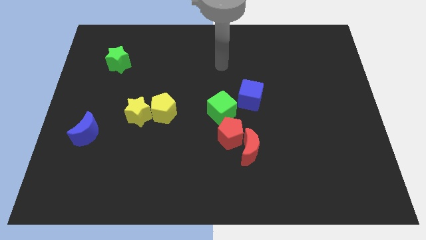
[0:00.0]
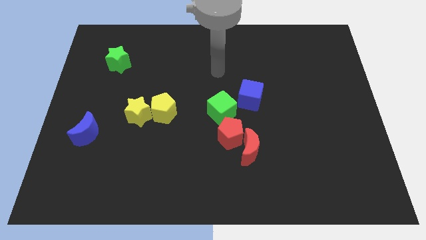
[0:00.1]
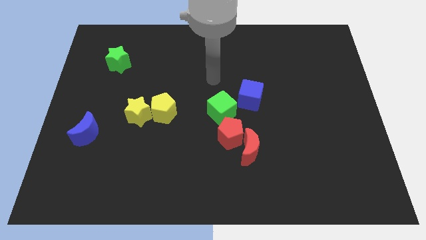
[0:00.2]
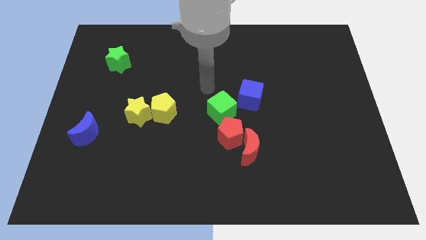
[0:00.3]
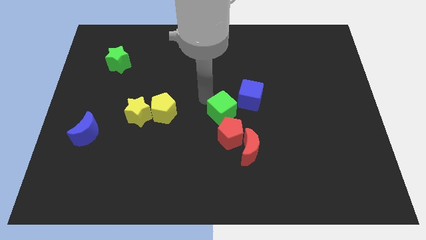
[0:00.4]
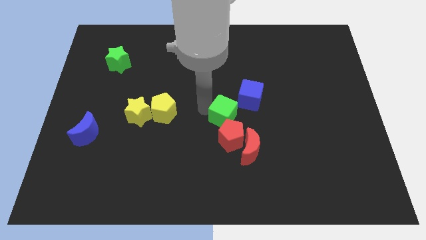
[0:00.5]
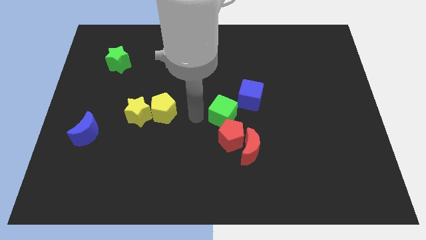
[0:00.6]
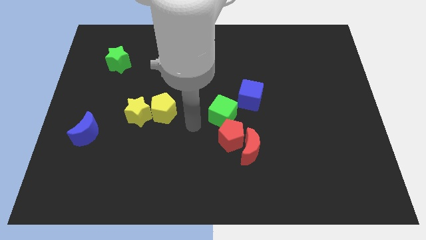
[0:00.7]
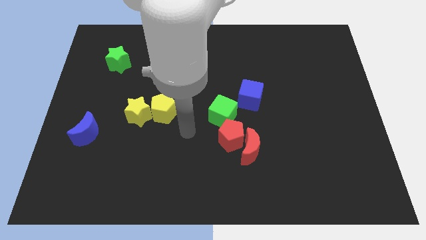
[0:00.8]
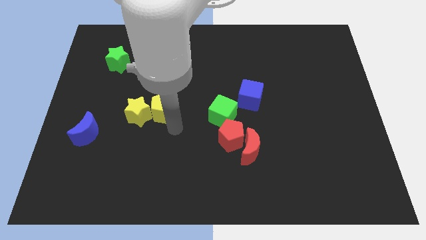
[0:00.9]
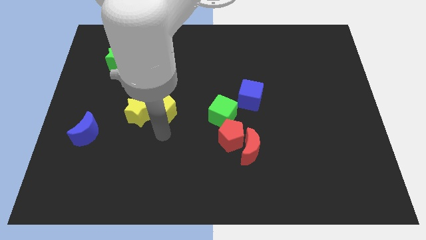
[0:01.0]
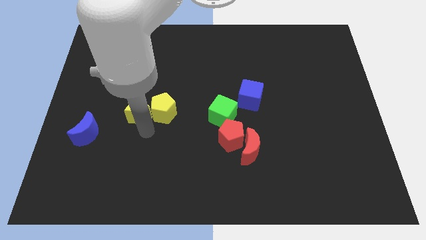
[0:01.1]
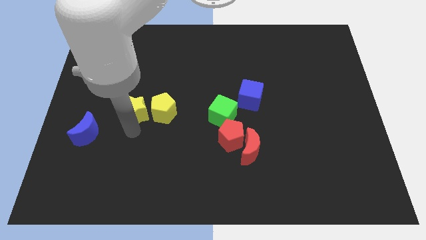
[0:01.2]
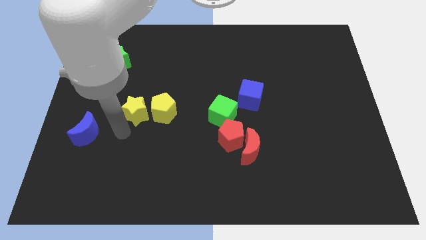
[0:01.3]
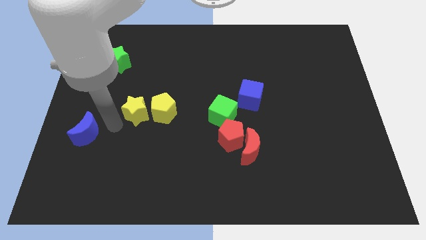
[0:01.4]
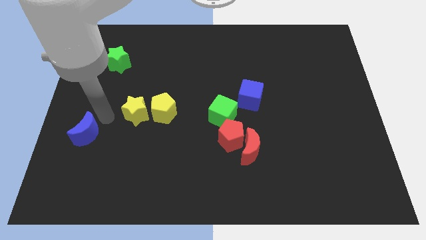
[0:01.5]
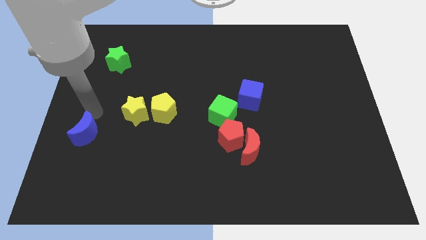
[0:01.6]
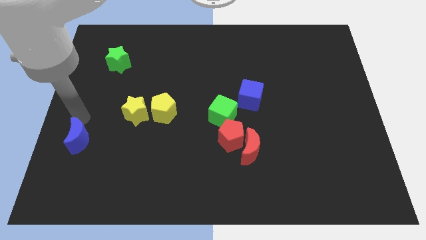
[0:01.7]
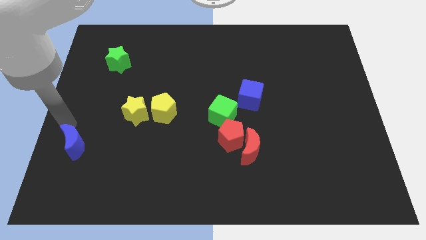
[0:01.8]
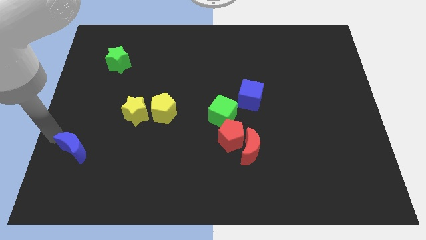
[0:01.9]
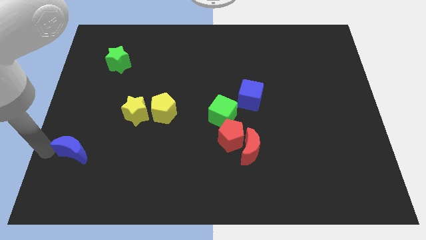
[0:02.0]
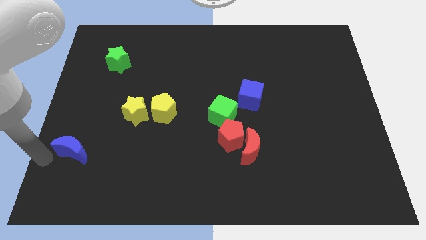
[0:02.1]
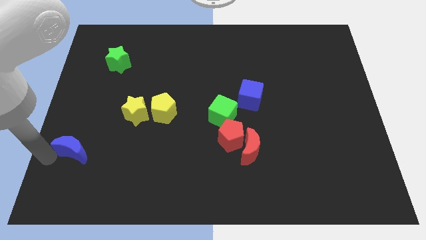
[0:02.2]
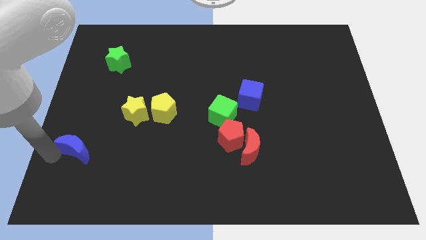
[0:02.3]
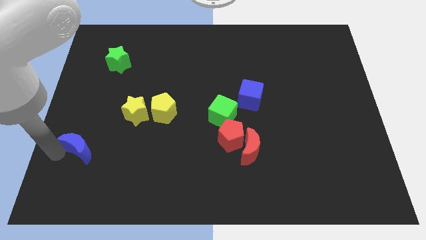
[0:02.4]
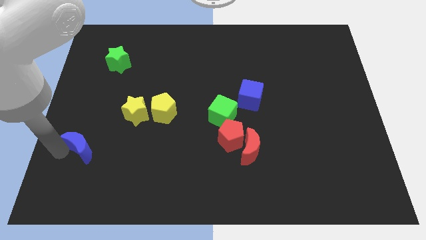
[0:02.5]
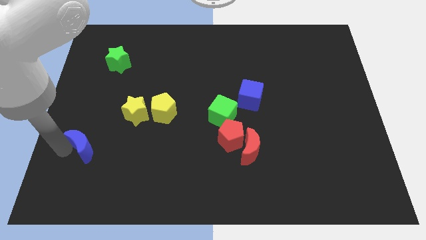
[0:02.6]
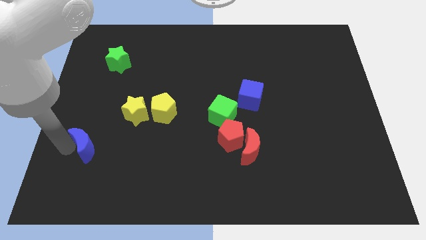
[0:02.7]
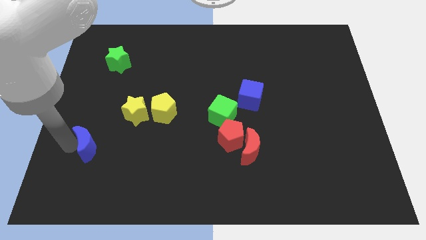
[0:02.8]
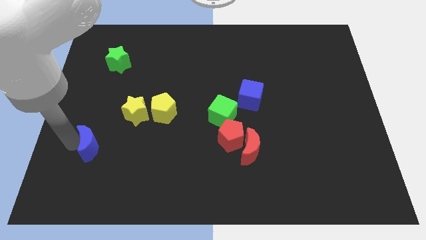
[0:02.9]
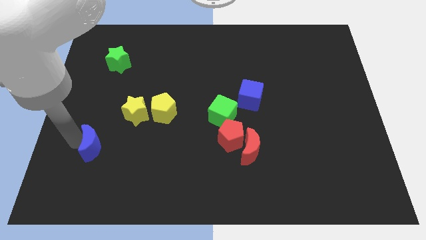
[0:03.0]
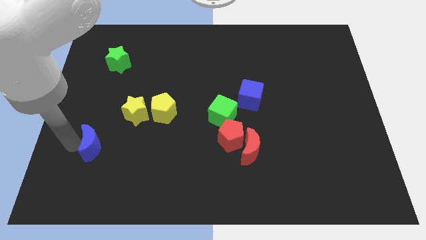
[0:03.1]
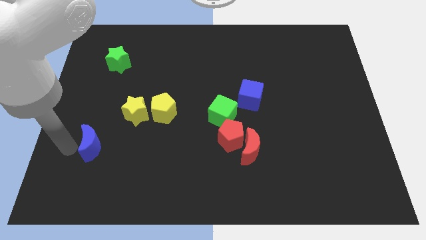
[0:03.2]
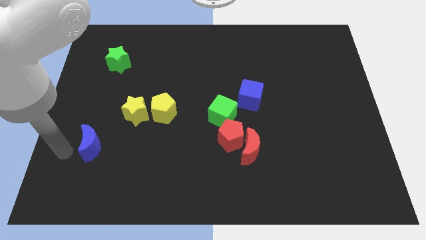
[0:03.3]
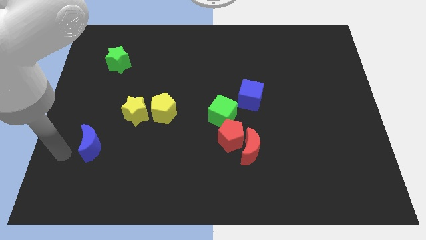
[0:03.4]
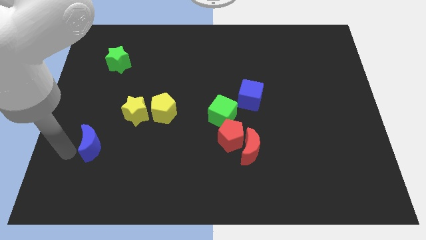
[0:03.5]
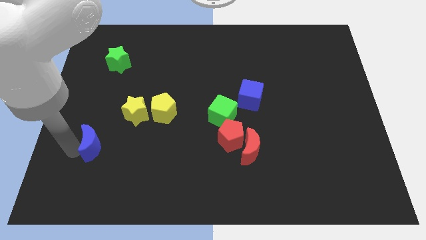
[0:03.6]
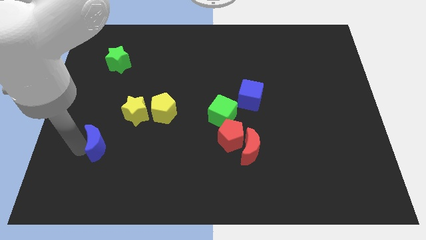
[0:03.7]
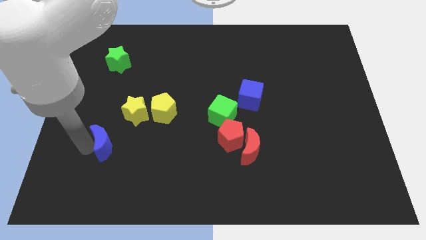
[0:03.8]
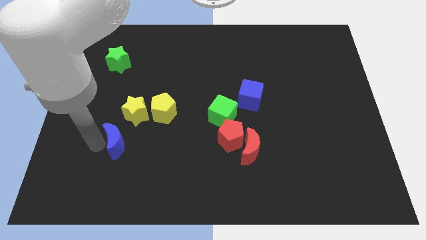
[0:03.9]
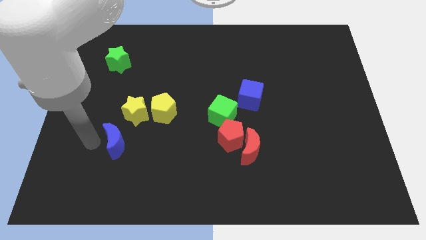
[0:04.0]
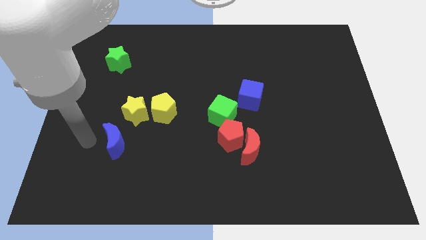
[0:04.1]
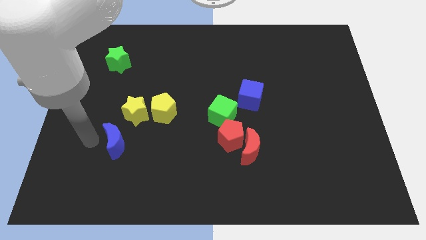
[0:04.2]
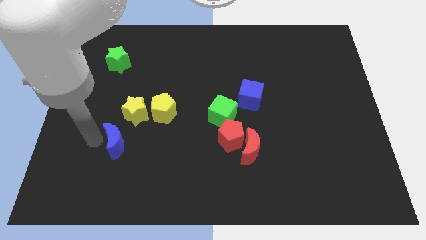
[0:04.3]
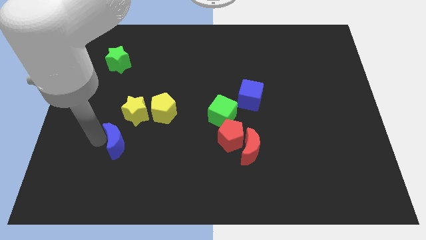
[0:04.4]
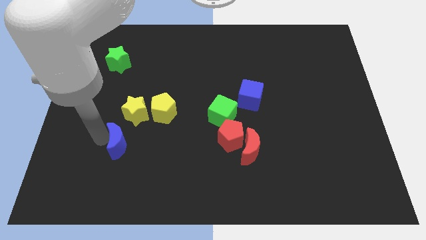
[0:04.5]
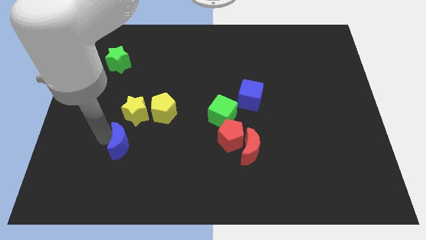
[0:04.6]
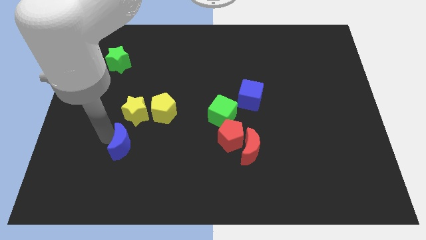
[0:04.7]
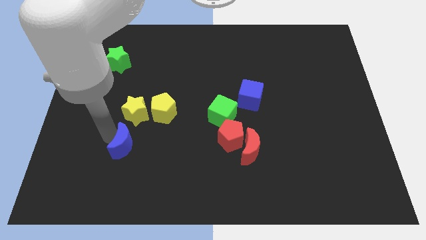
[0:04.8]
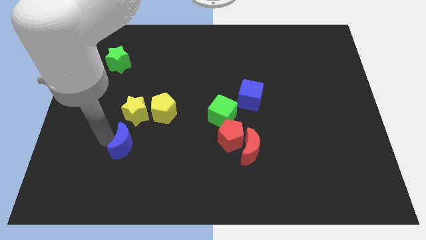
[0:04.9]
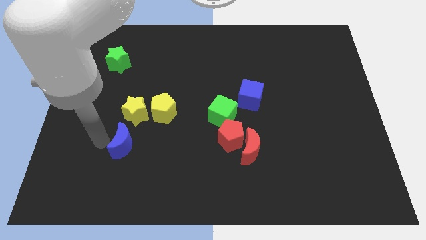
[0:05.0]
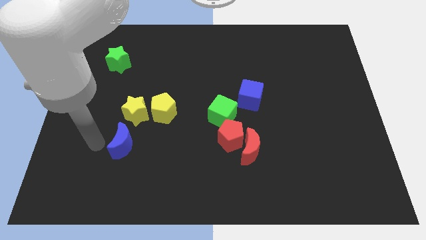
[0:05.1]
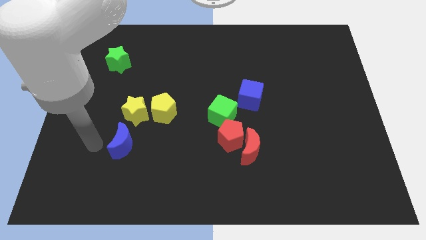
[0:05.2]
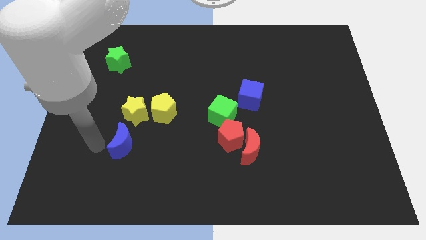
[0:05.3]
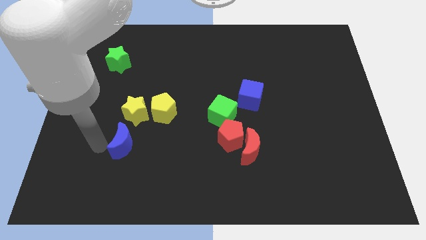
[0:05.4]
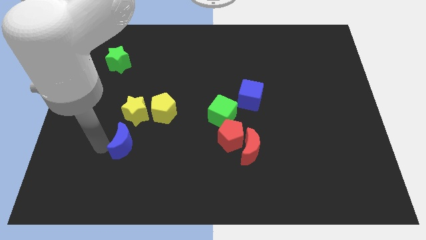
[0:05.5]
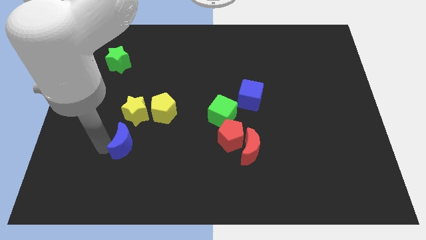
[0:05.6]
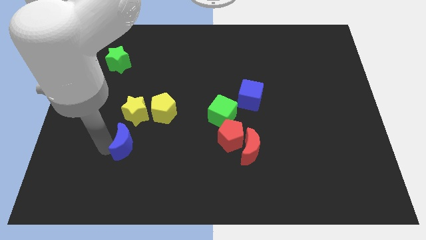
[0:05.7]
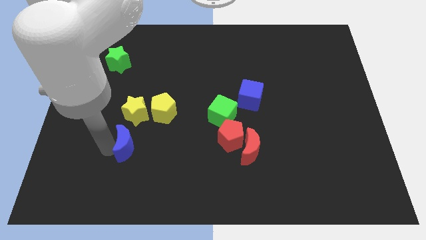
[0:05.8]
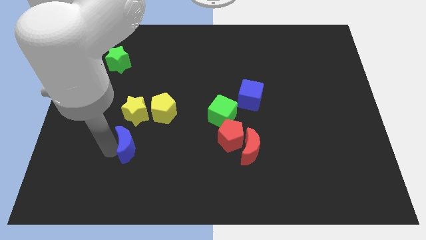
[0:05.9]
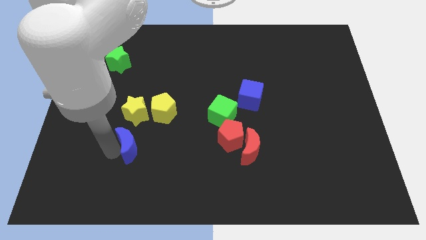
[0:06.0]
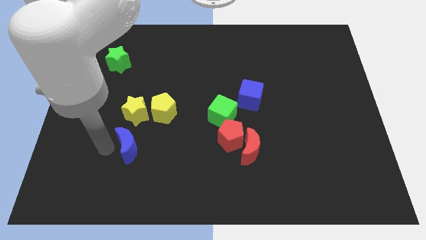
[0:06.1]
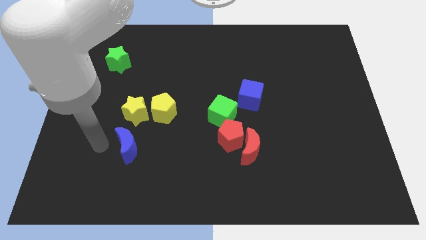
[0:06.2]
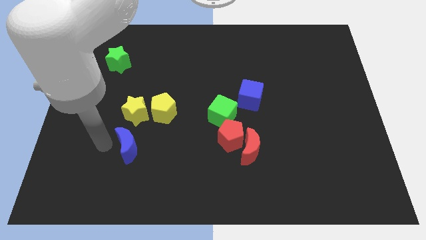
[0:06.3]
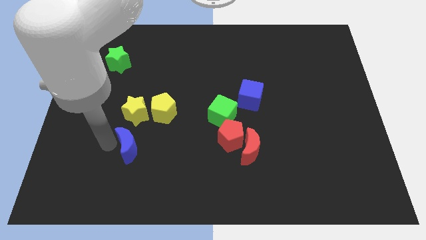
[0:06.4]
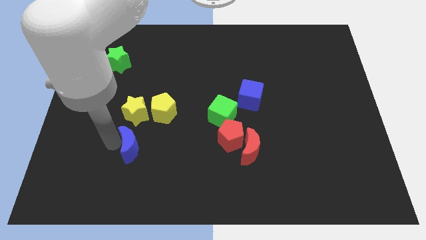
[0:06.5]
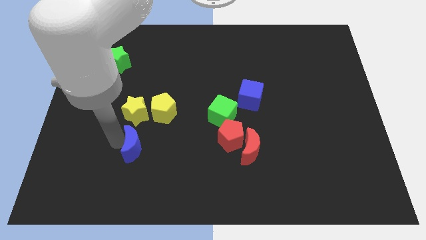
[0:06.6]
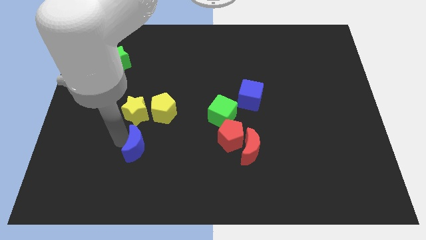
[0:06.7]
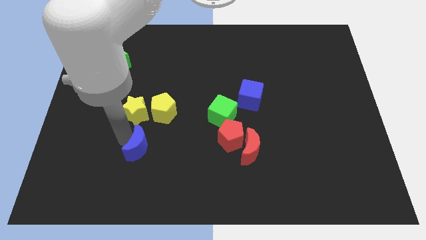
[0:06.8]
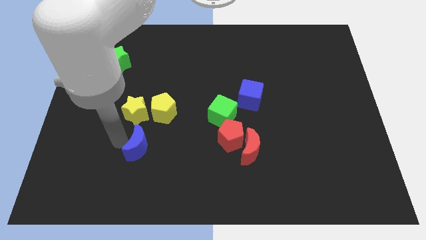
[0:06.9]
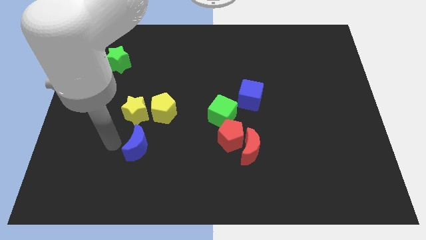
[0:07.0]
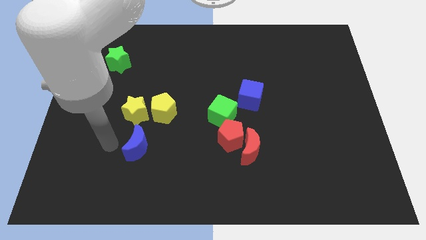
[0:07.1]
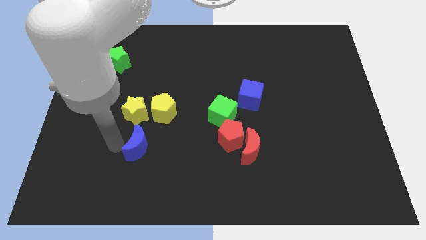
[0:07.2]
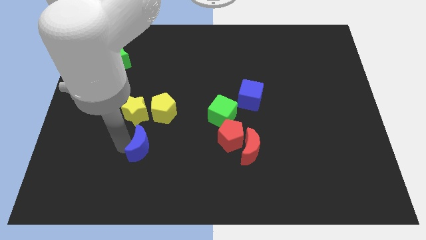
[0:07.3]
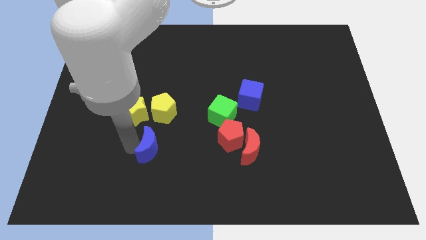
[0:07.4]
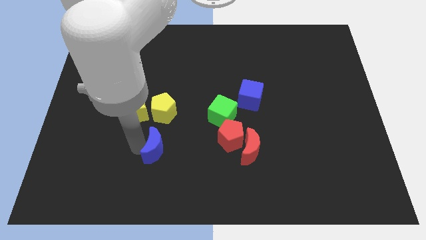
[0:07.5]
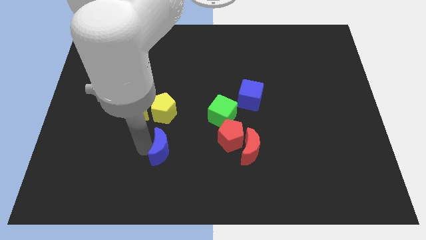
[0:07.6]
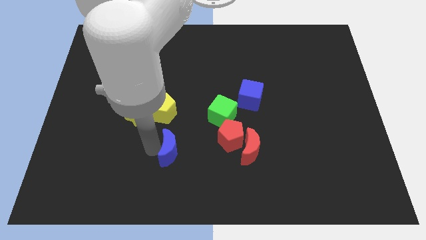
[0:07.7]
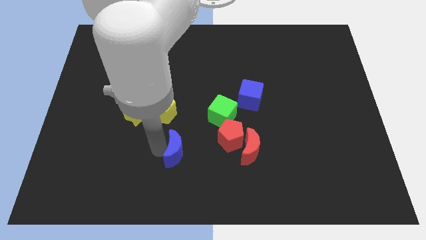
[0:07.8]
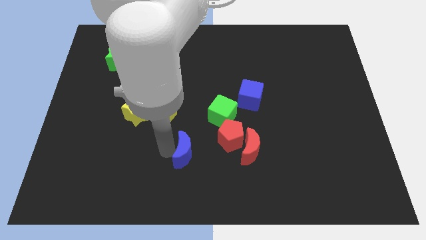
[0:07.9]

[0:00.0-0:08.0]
push the blue moon to the bottom left side of the red pentagon
